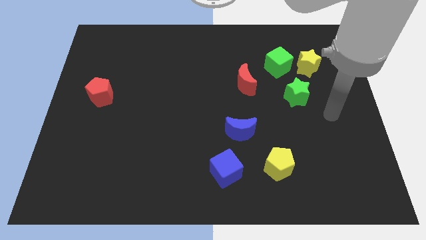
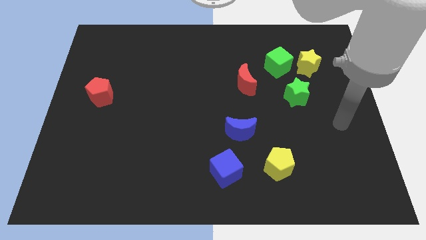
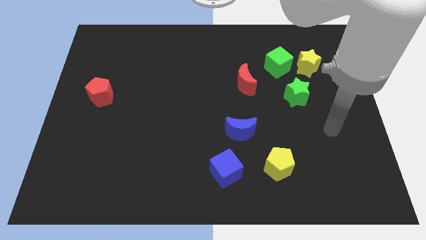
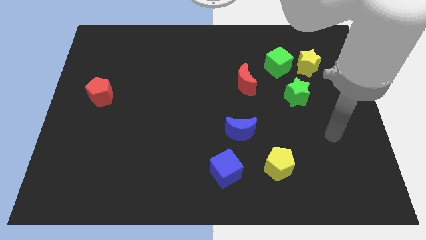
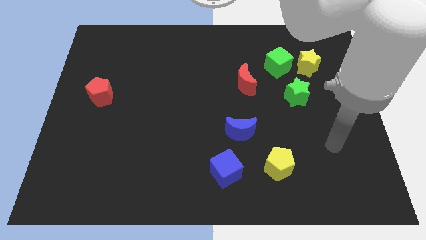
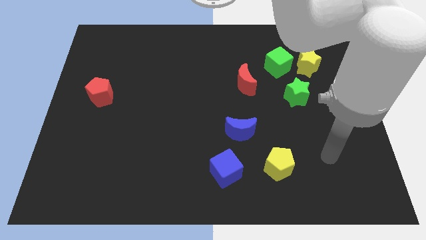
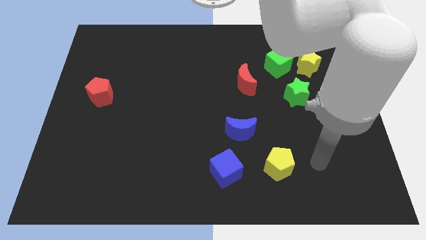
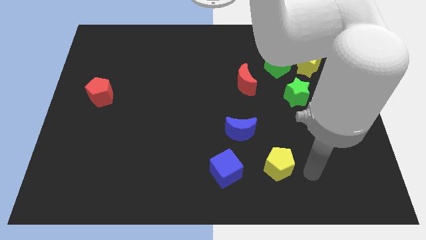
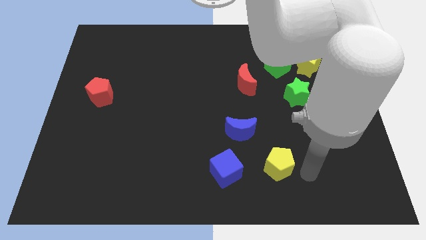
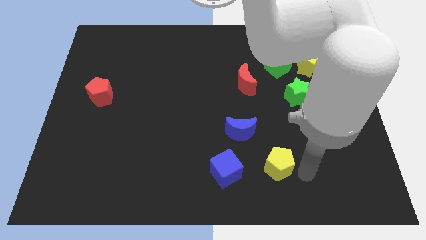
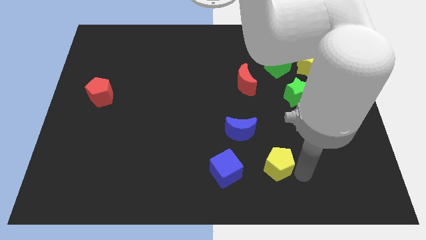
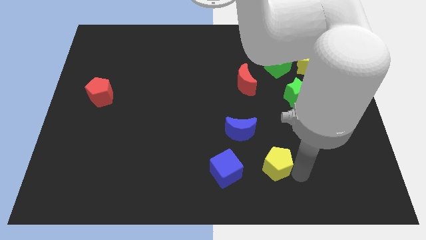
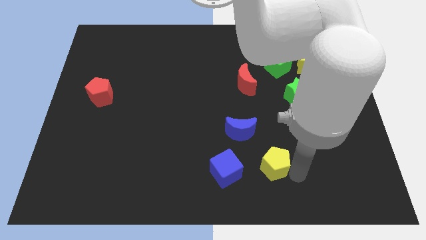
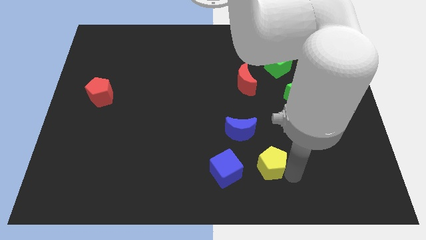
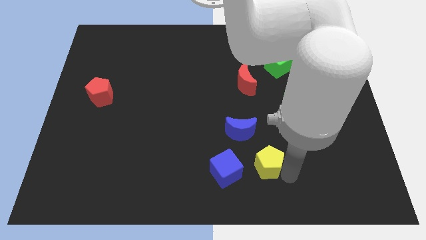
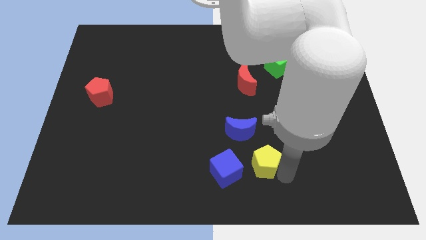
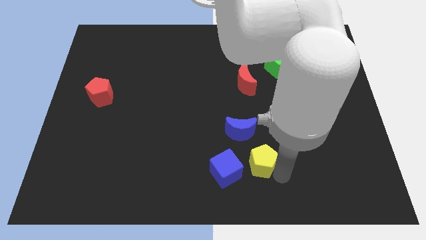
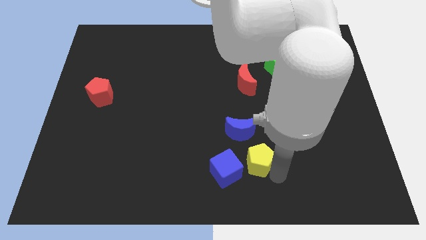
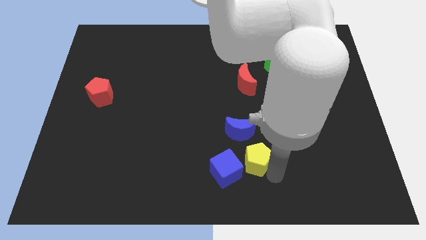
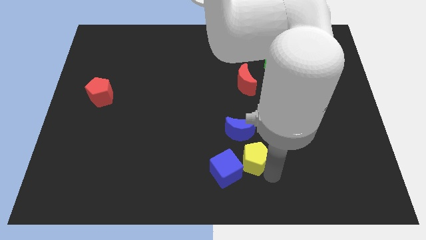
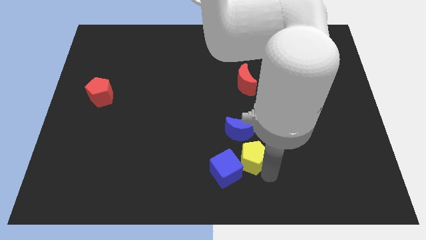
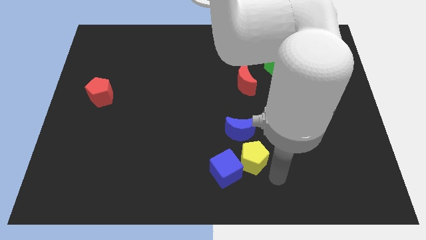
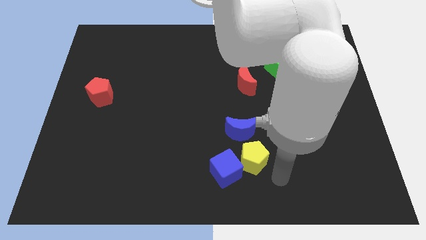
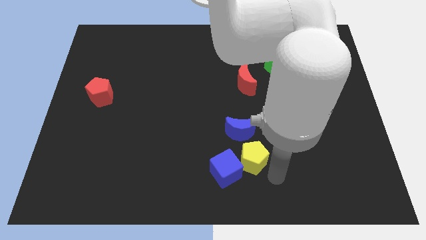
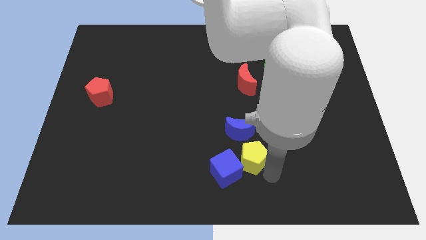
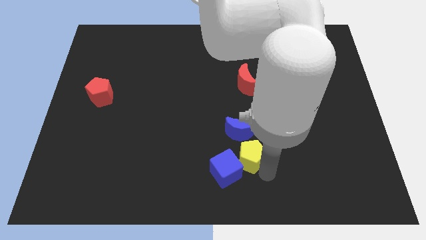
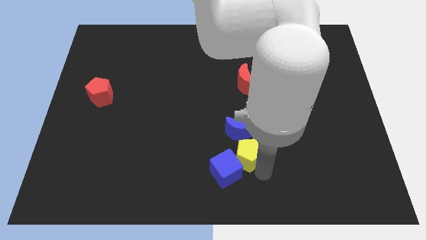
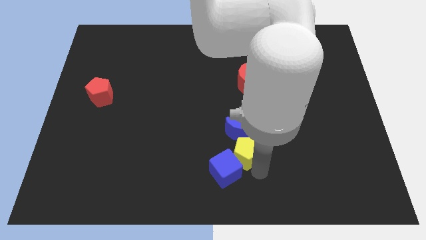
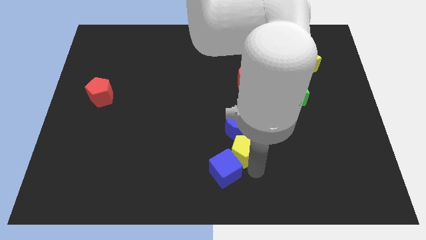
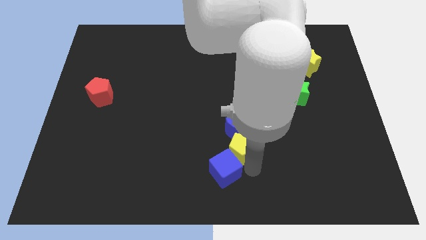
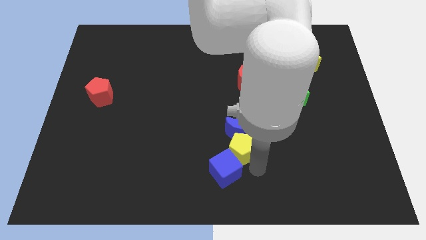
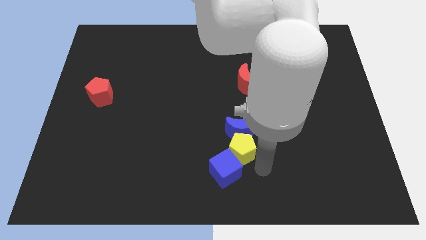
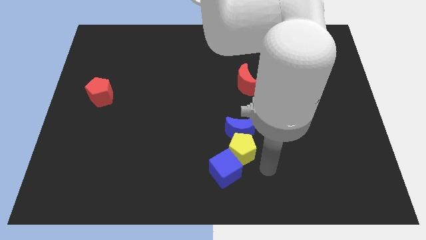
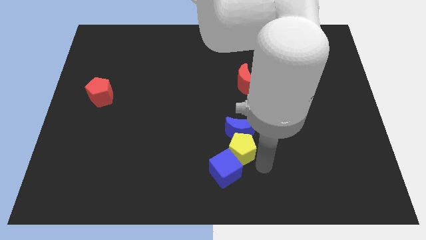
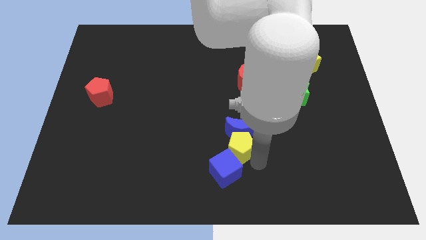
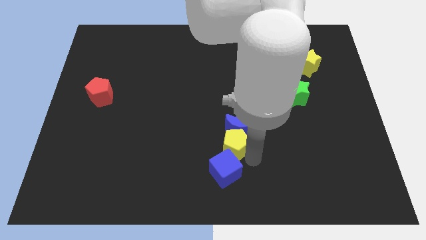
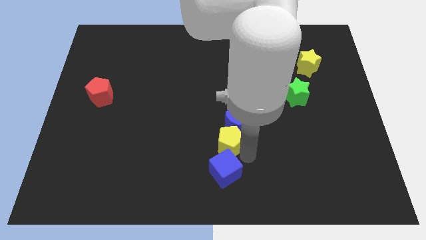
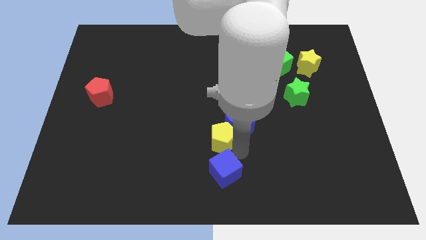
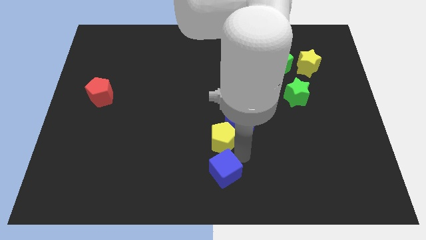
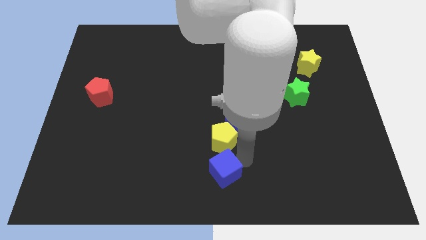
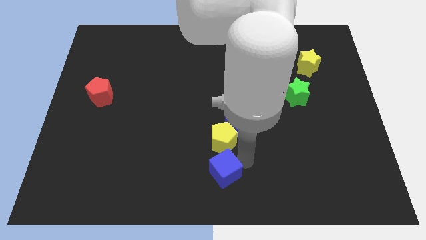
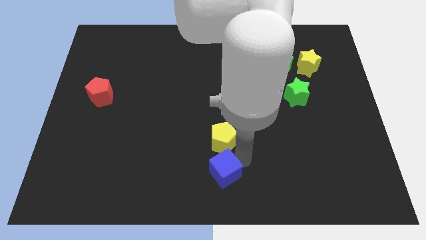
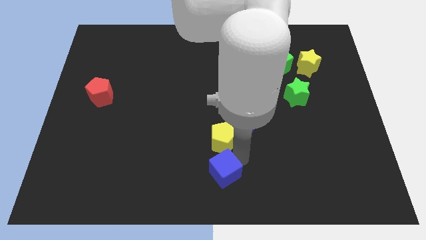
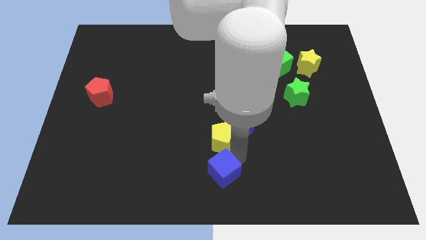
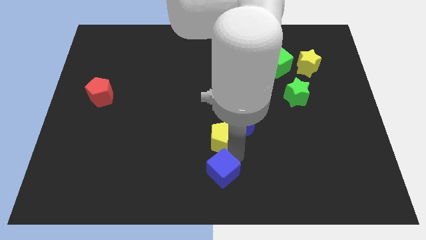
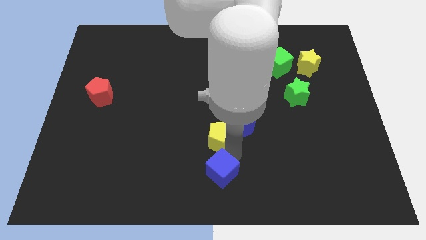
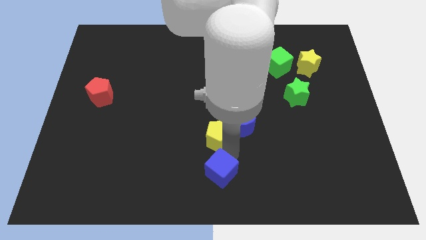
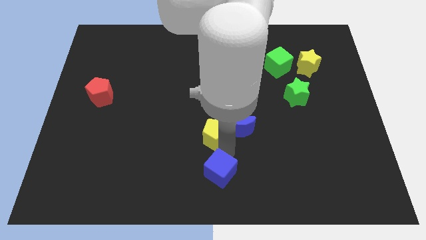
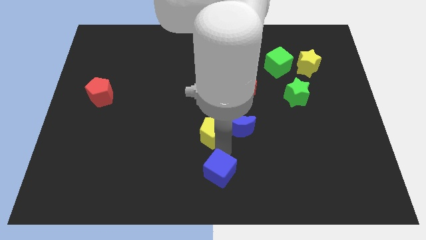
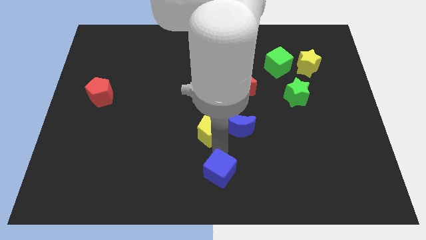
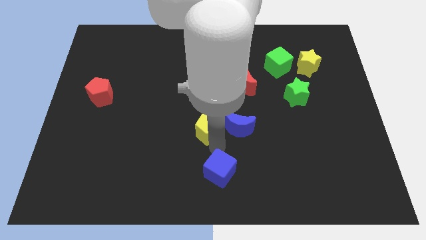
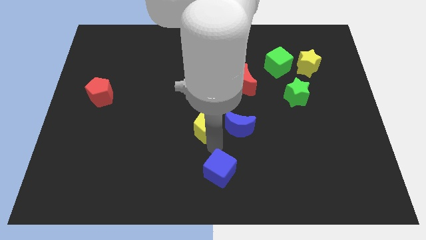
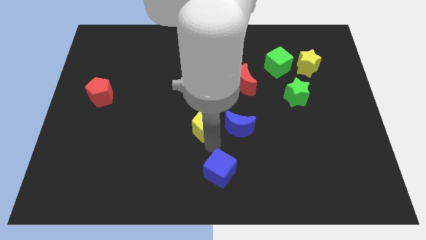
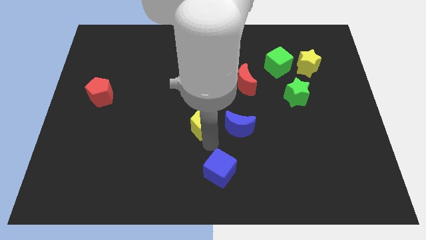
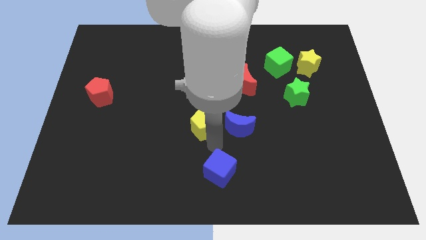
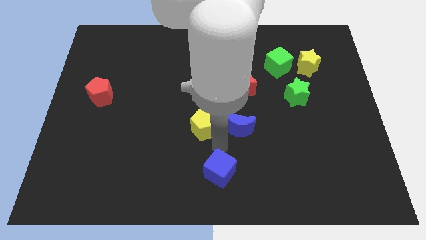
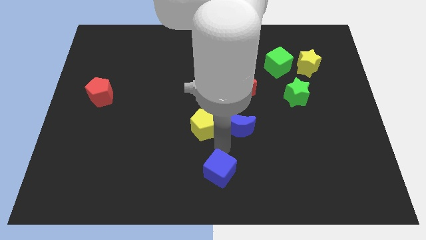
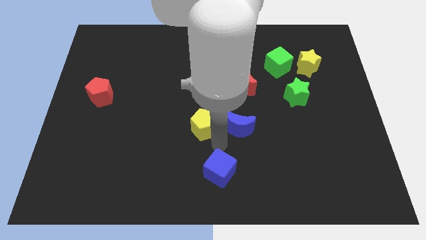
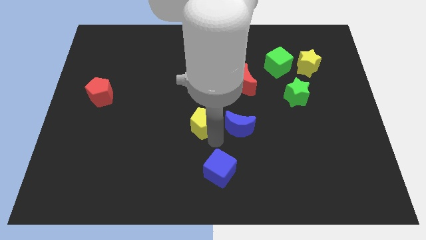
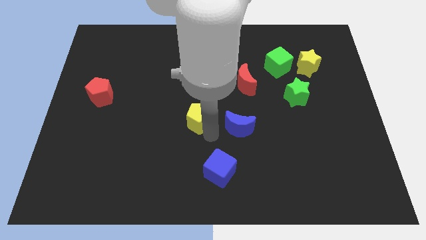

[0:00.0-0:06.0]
push the yellow pentagon upwards and left diagonally

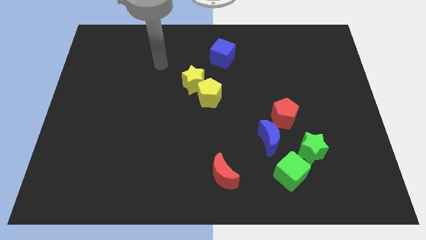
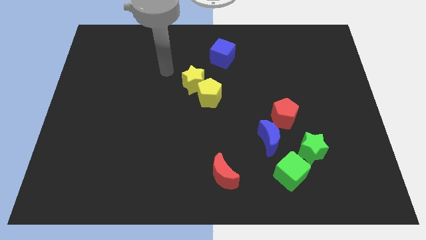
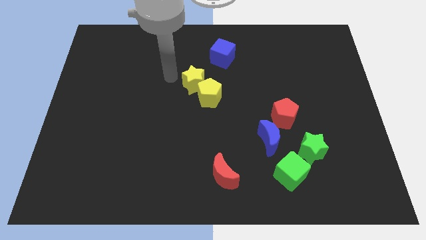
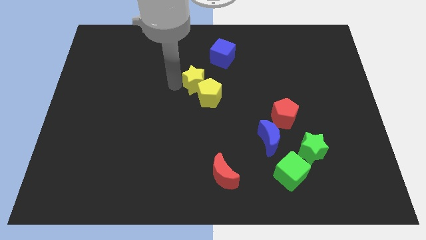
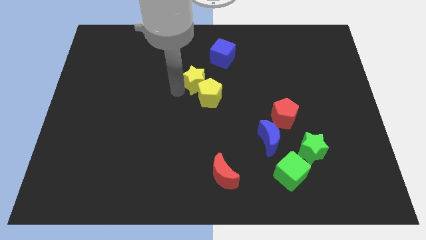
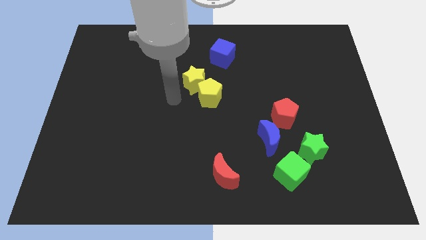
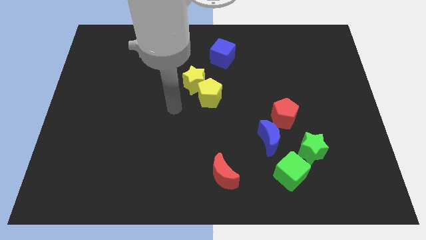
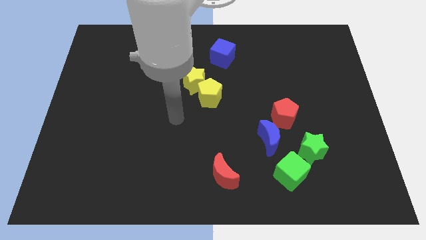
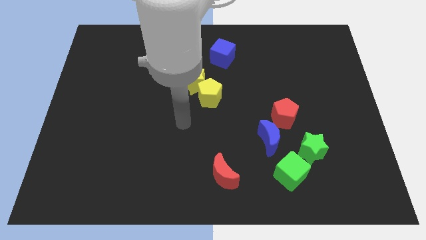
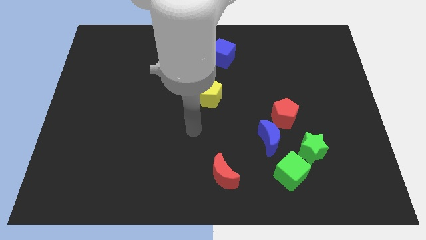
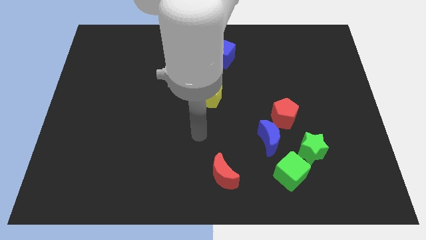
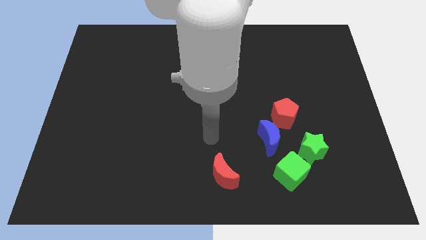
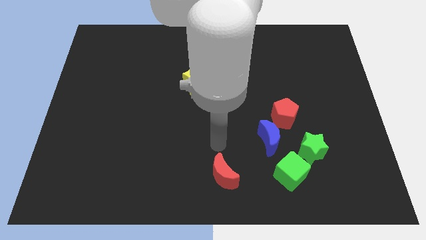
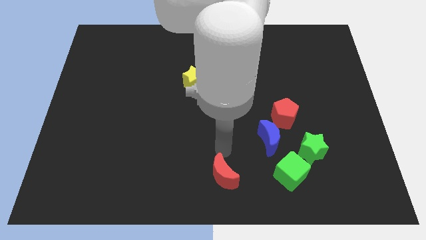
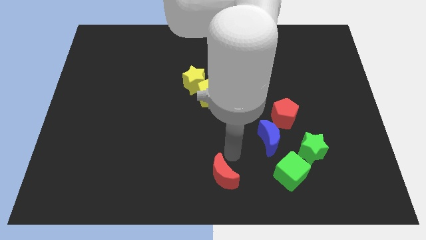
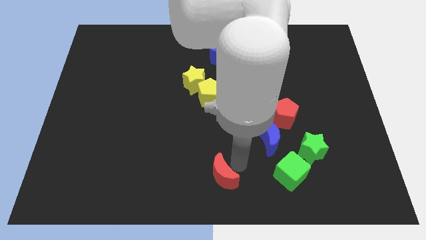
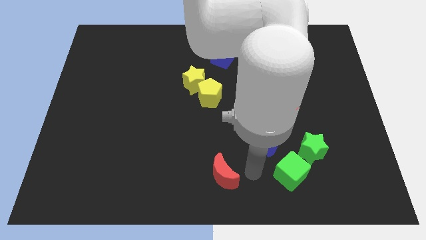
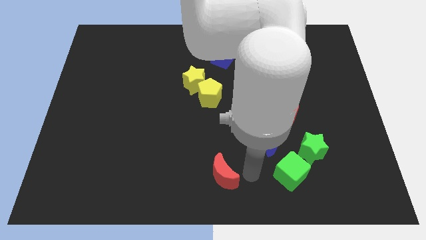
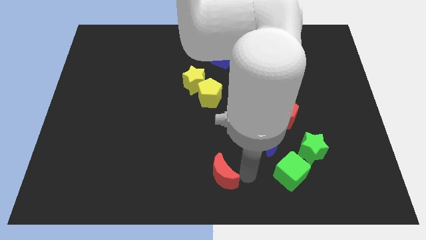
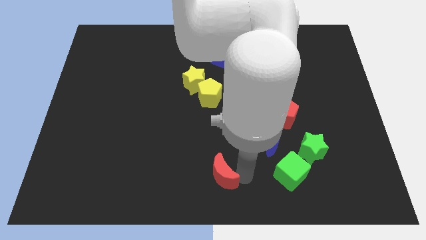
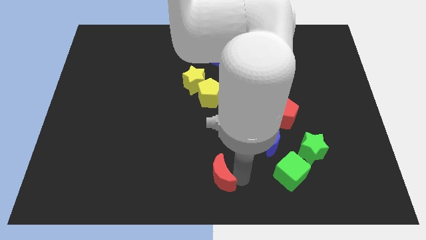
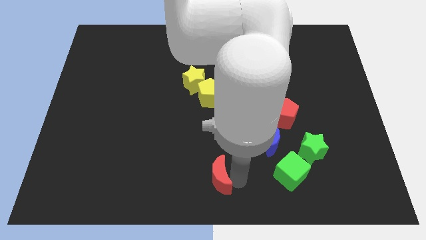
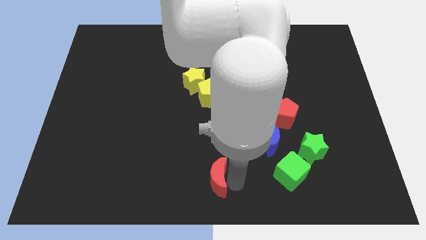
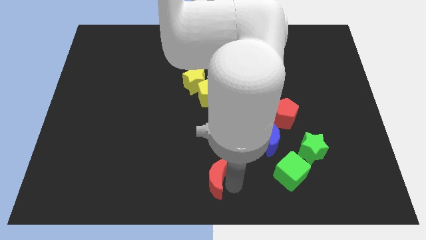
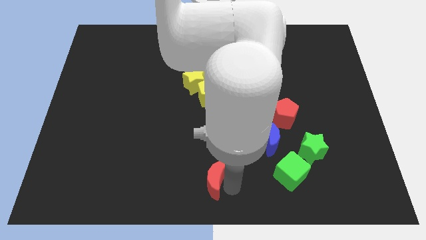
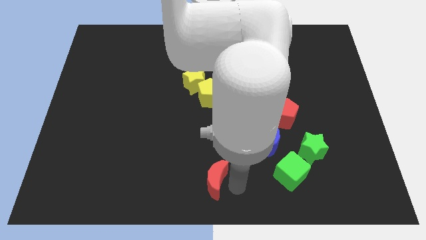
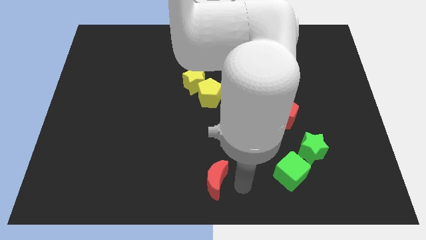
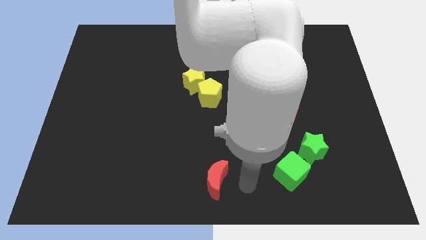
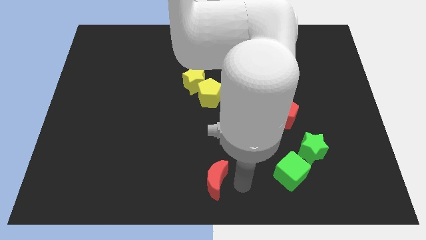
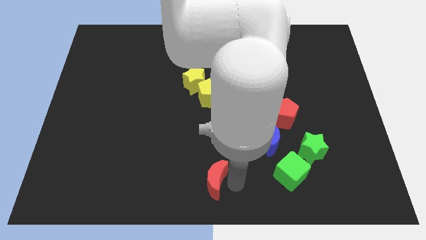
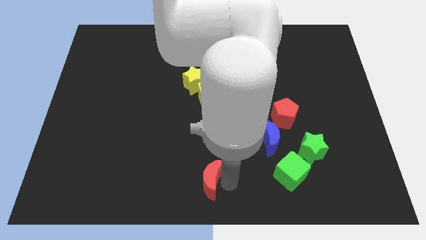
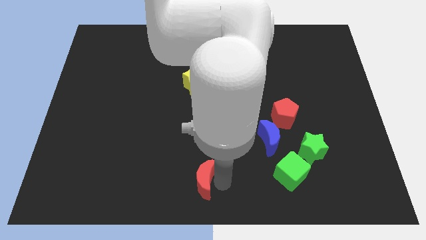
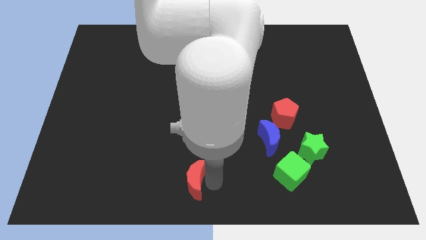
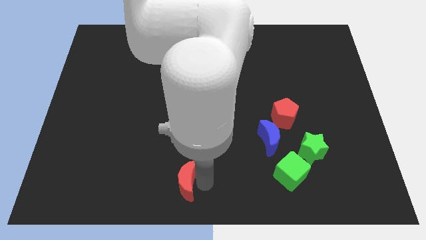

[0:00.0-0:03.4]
slide the red moon left somewhat
